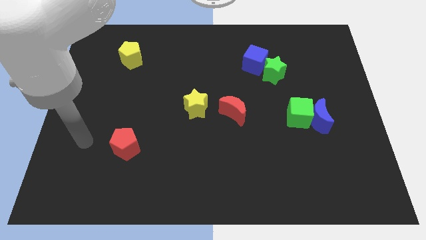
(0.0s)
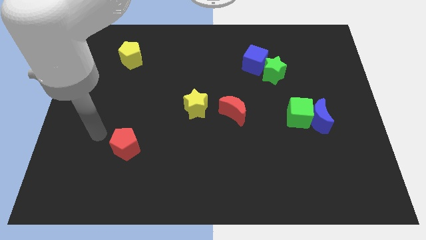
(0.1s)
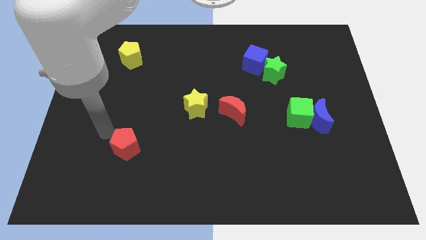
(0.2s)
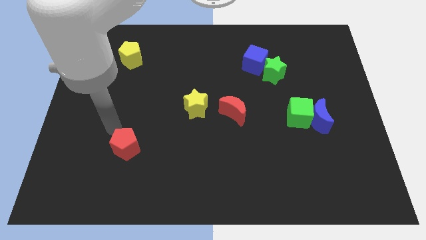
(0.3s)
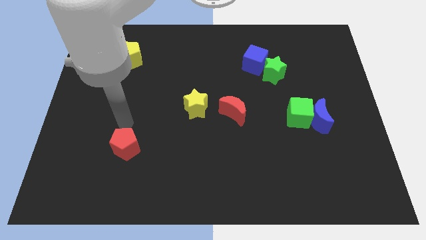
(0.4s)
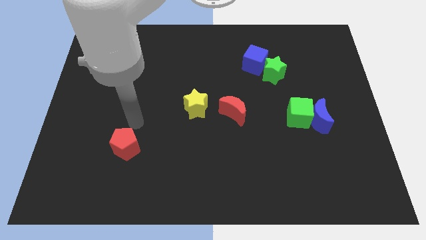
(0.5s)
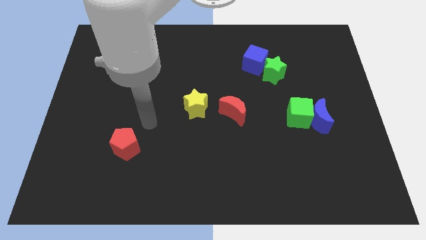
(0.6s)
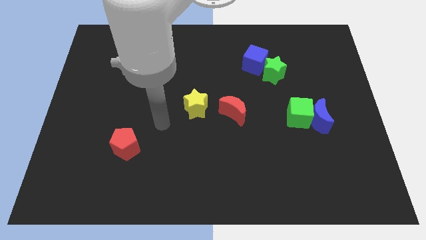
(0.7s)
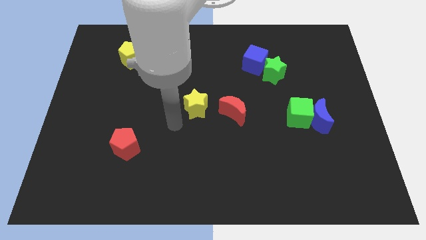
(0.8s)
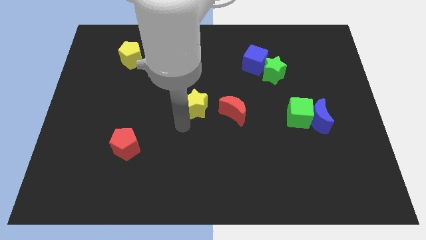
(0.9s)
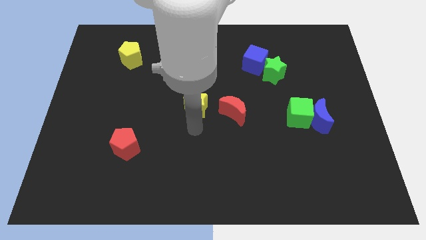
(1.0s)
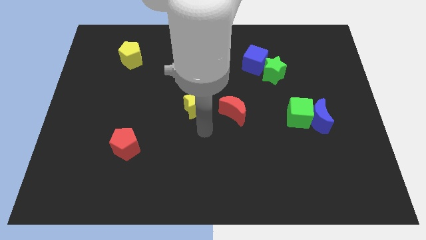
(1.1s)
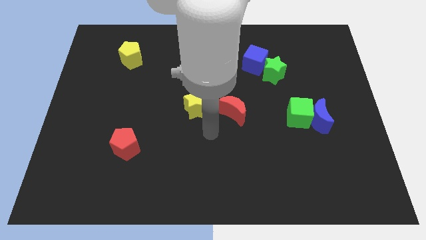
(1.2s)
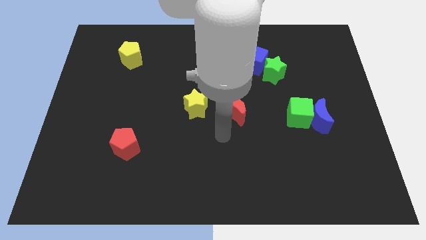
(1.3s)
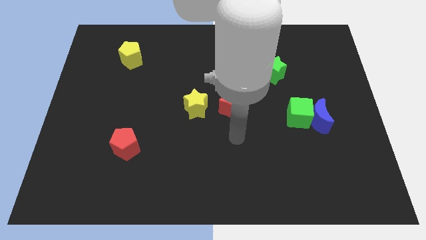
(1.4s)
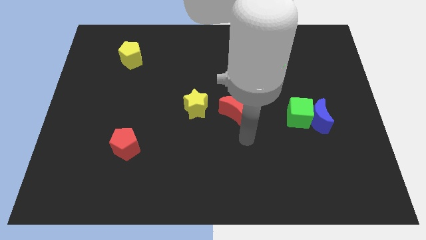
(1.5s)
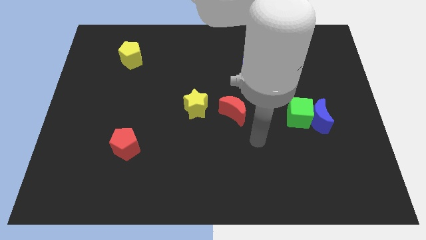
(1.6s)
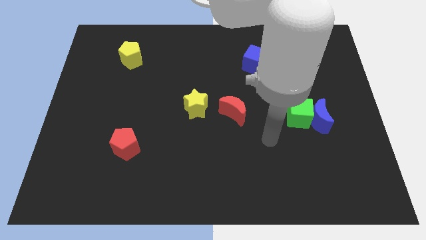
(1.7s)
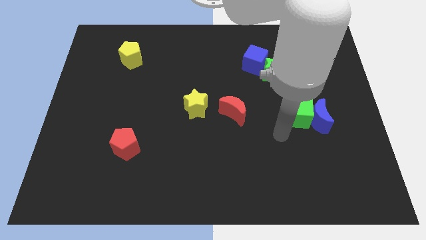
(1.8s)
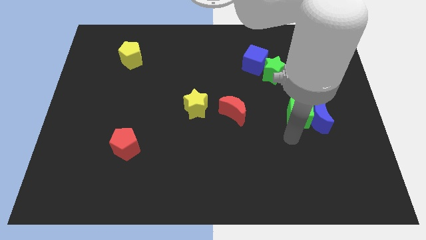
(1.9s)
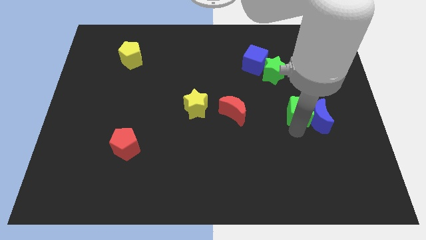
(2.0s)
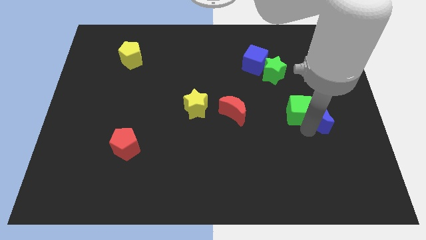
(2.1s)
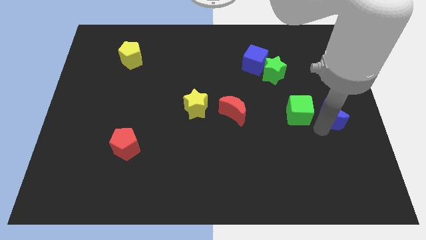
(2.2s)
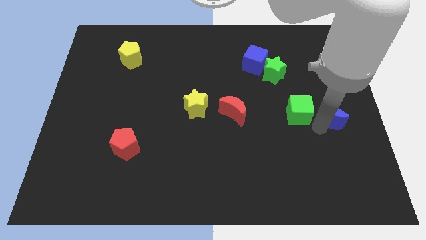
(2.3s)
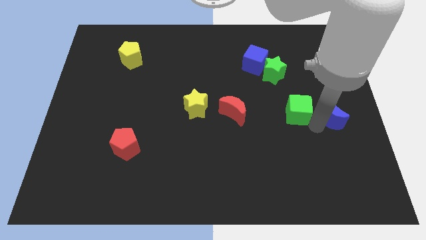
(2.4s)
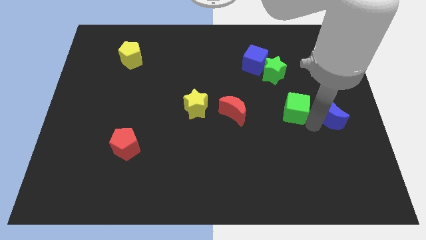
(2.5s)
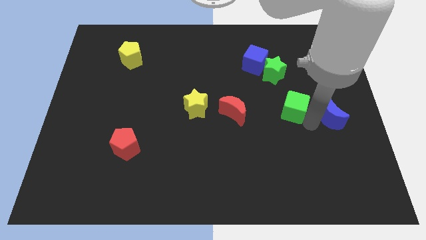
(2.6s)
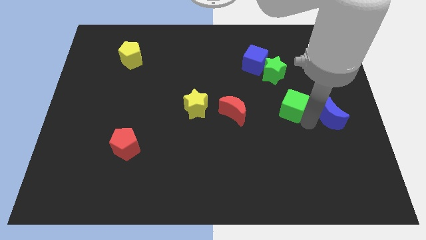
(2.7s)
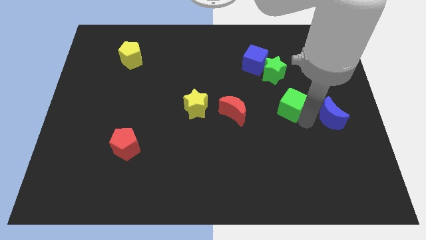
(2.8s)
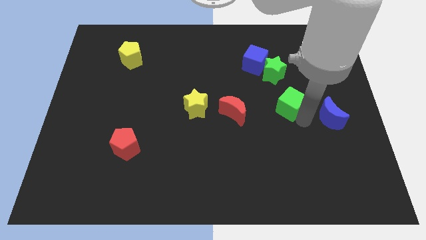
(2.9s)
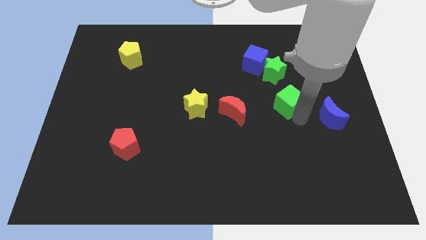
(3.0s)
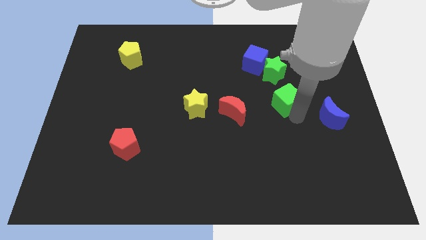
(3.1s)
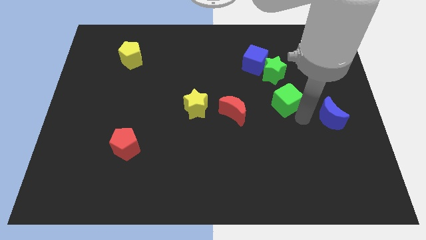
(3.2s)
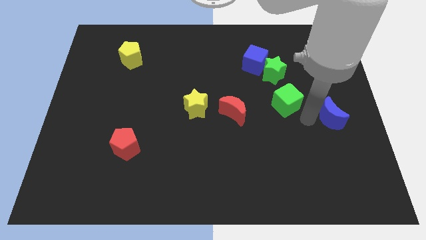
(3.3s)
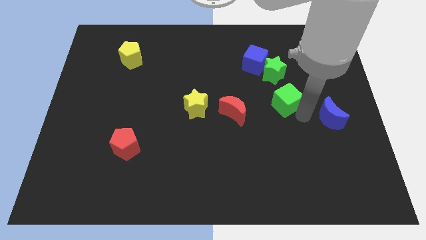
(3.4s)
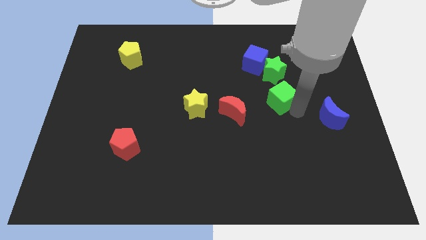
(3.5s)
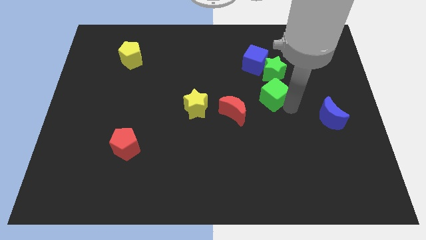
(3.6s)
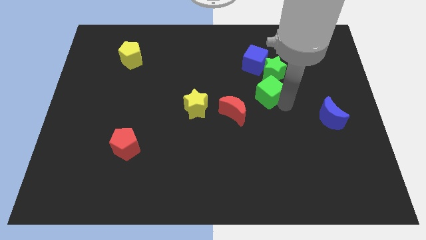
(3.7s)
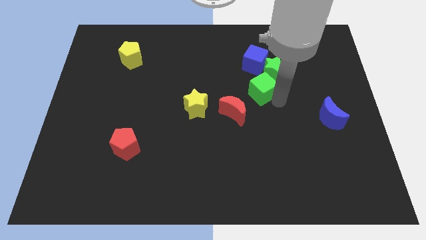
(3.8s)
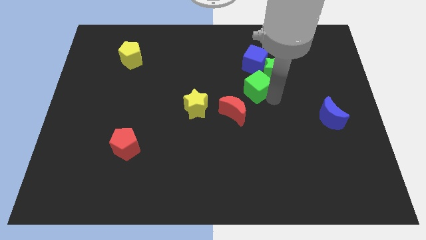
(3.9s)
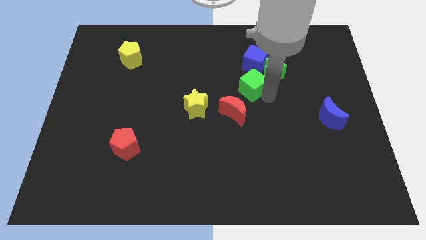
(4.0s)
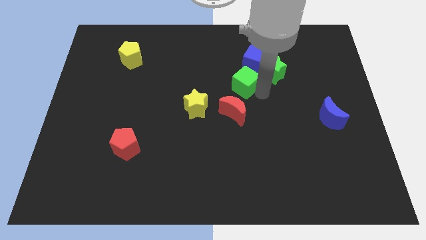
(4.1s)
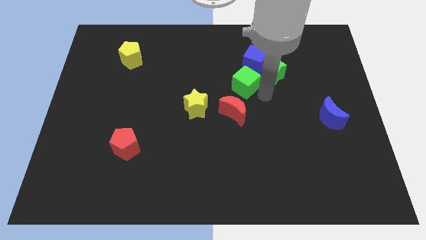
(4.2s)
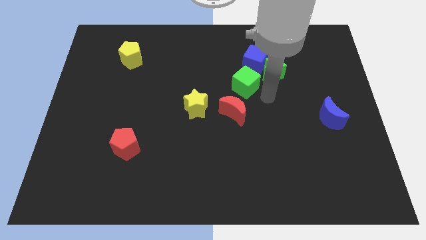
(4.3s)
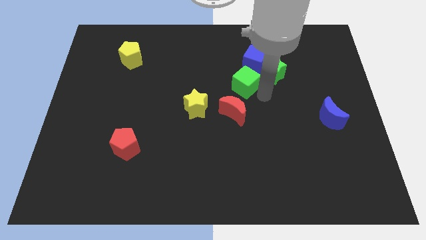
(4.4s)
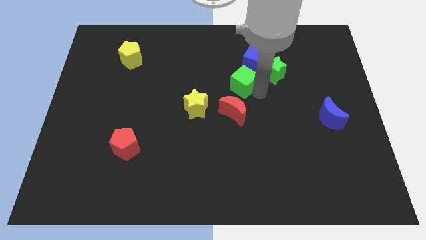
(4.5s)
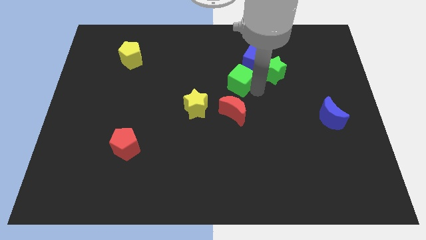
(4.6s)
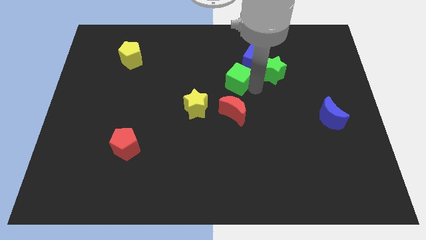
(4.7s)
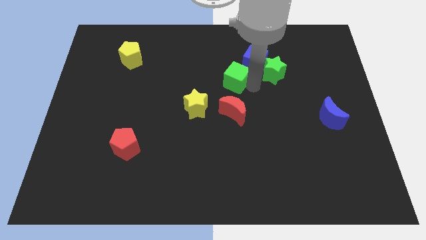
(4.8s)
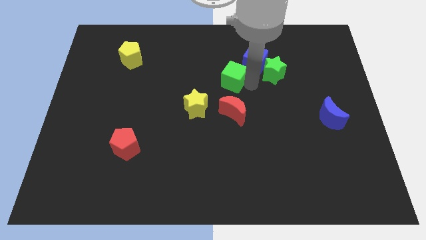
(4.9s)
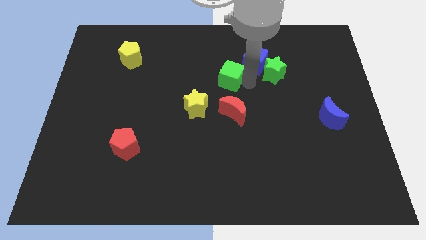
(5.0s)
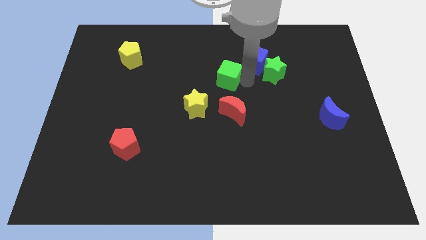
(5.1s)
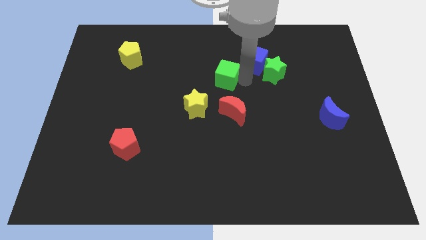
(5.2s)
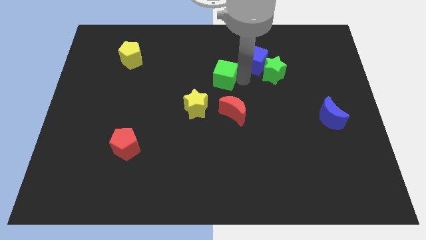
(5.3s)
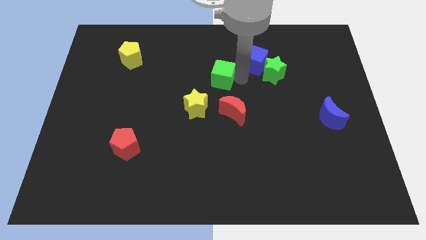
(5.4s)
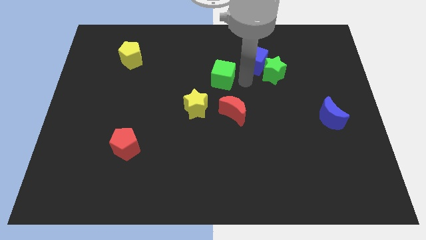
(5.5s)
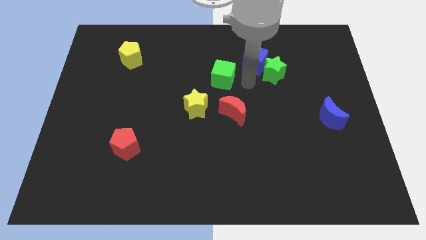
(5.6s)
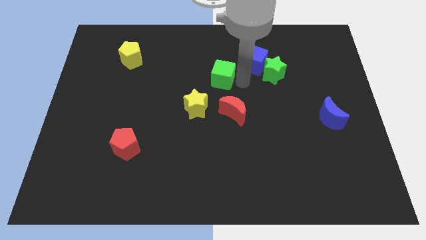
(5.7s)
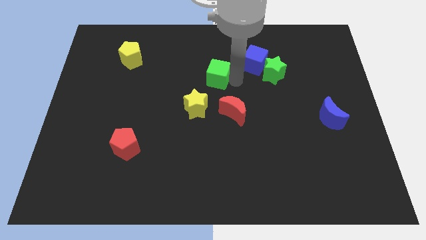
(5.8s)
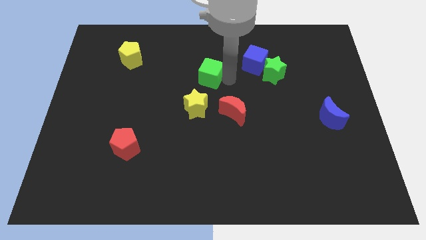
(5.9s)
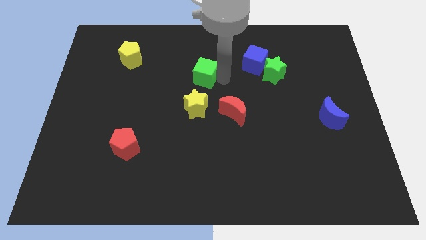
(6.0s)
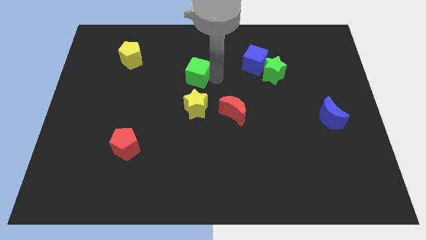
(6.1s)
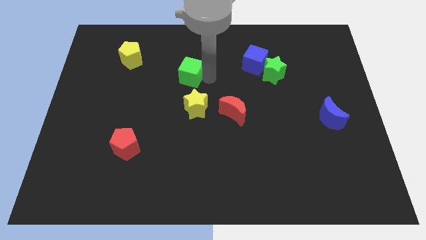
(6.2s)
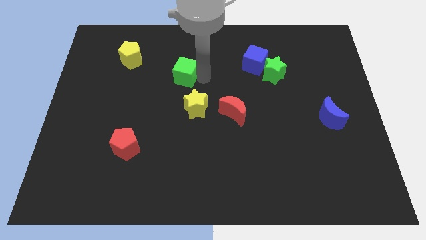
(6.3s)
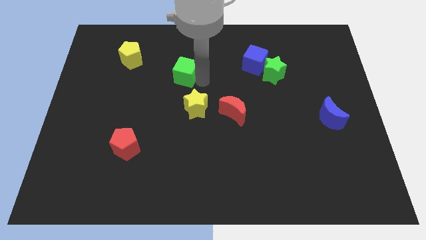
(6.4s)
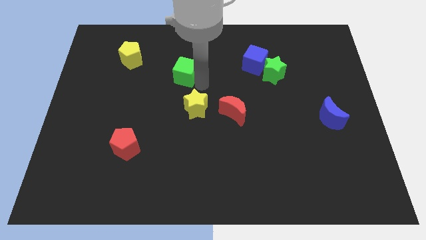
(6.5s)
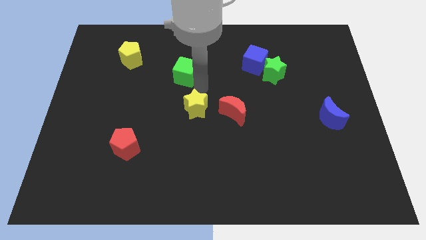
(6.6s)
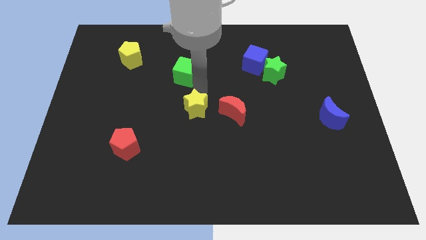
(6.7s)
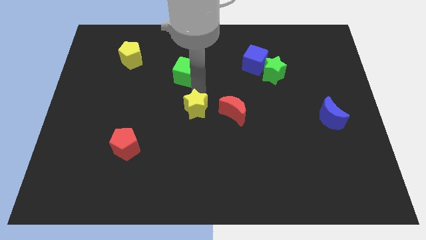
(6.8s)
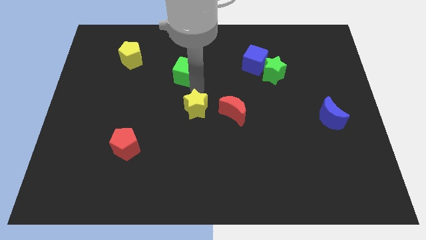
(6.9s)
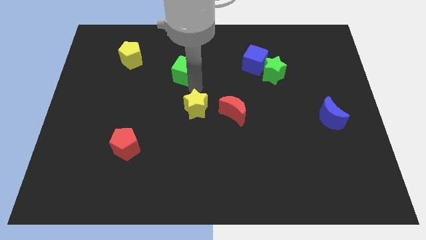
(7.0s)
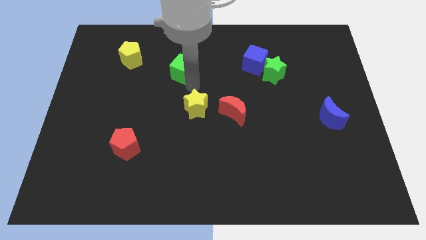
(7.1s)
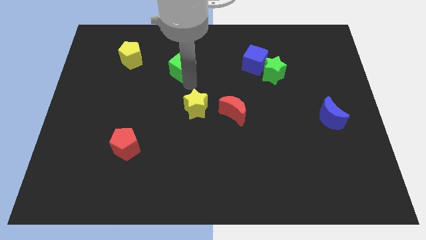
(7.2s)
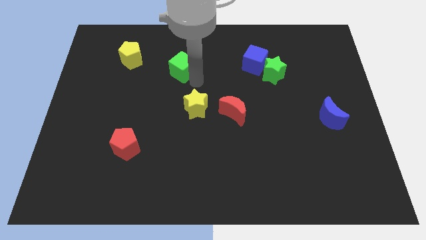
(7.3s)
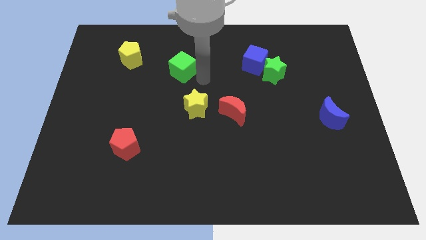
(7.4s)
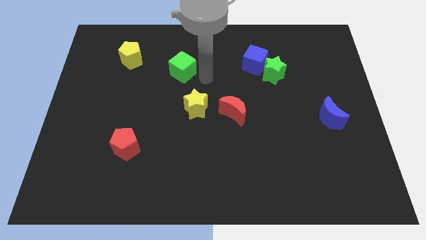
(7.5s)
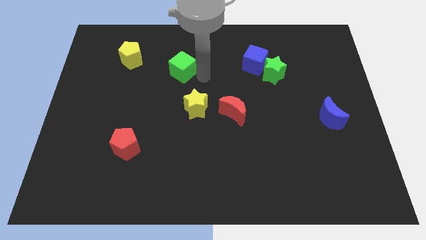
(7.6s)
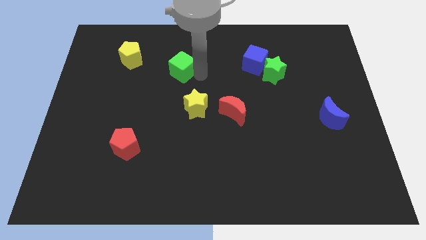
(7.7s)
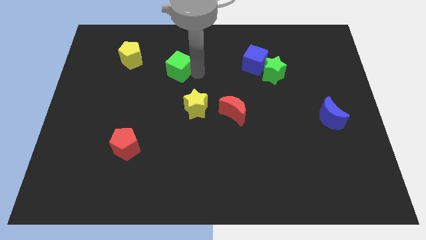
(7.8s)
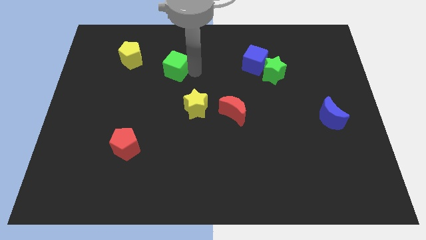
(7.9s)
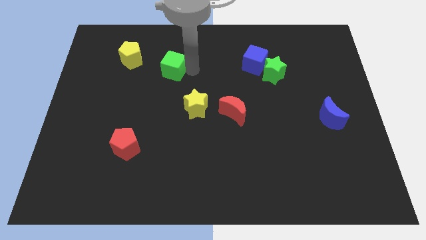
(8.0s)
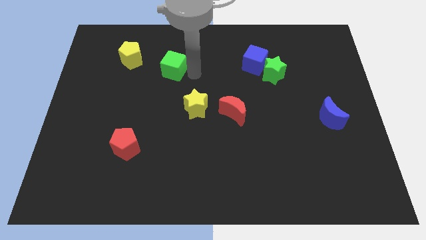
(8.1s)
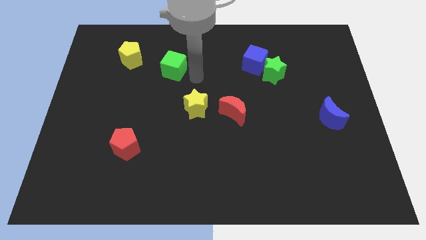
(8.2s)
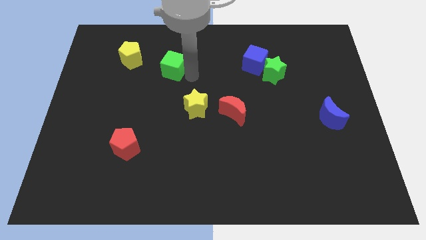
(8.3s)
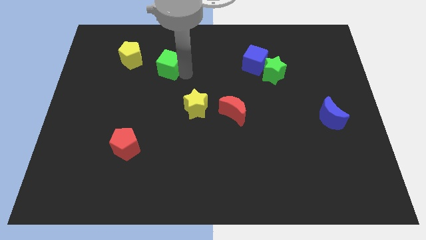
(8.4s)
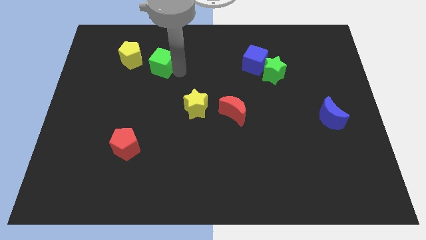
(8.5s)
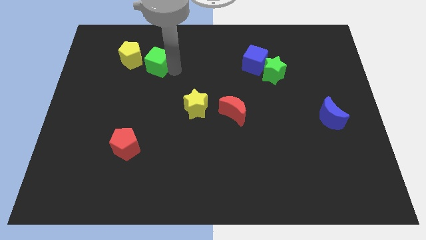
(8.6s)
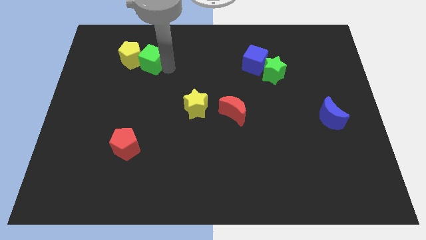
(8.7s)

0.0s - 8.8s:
push the green cube towards the yellow pentagon
